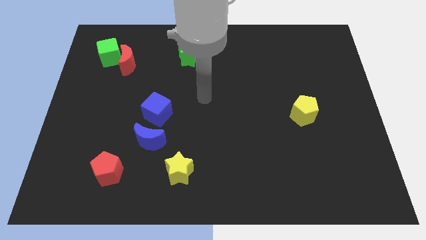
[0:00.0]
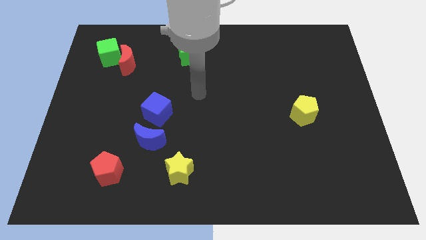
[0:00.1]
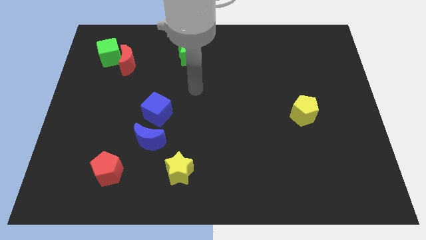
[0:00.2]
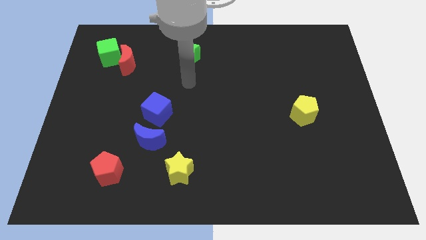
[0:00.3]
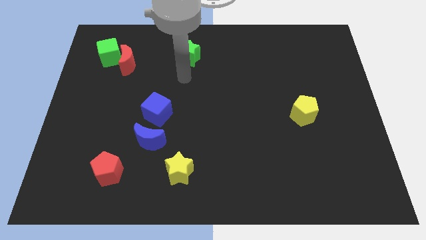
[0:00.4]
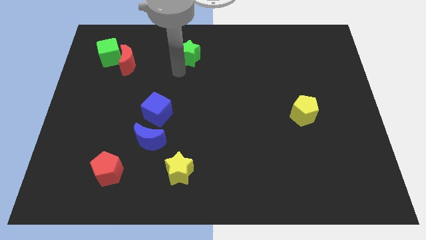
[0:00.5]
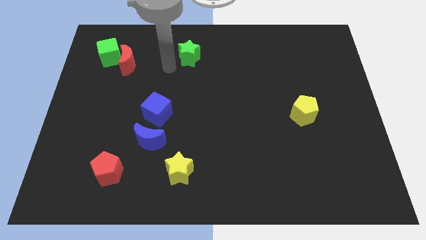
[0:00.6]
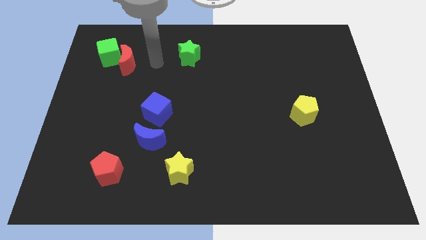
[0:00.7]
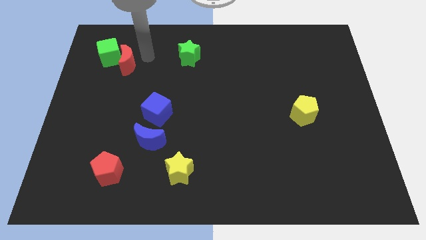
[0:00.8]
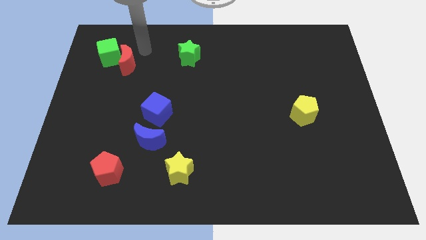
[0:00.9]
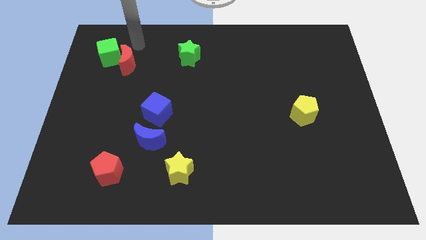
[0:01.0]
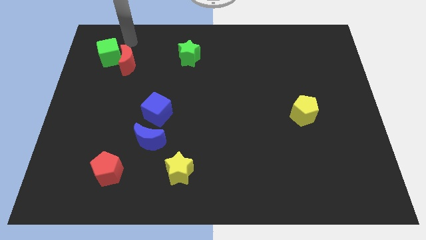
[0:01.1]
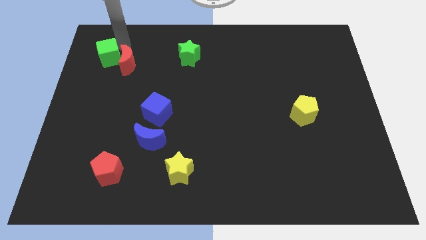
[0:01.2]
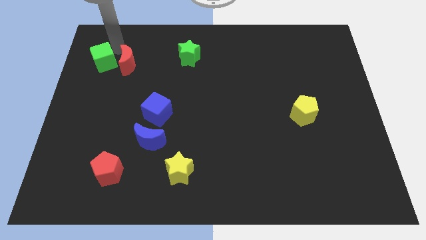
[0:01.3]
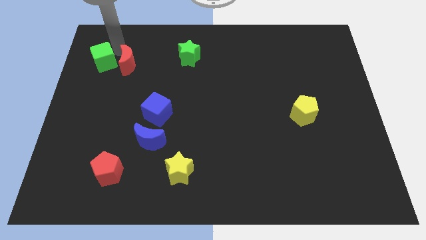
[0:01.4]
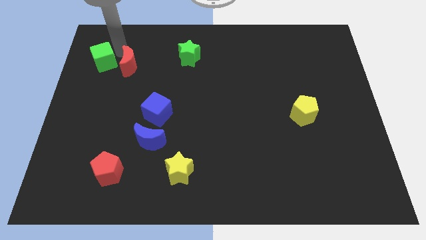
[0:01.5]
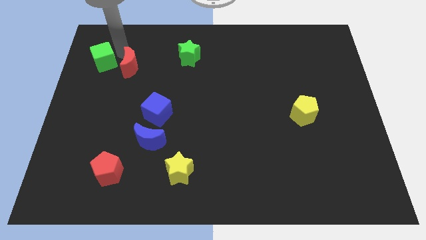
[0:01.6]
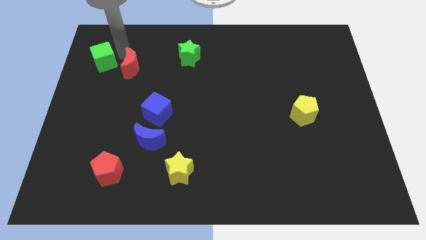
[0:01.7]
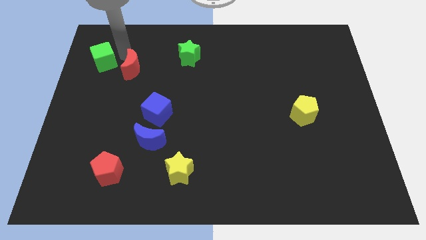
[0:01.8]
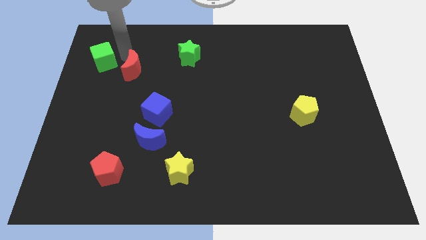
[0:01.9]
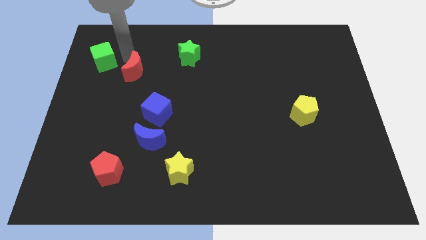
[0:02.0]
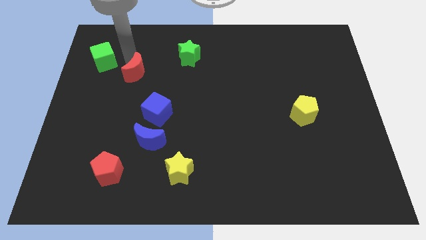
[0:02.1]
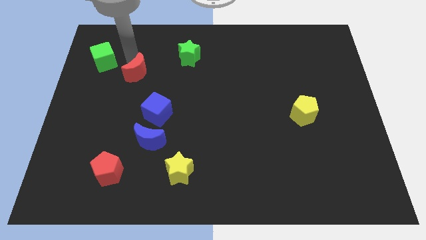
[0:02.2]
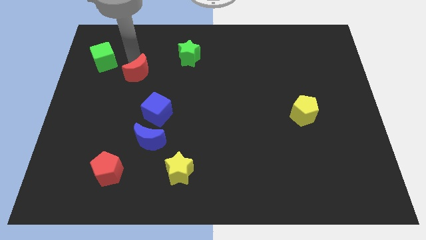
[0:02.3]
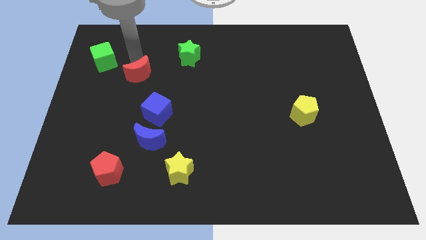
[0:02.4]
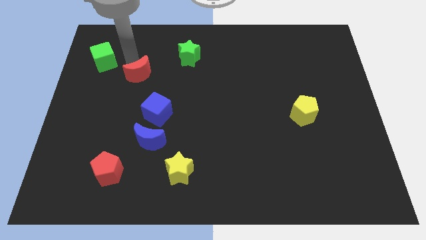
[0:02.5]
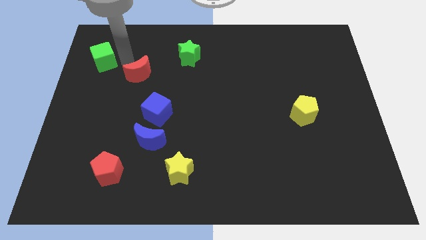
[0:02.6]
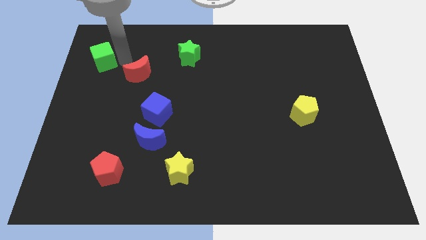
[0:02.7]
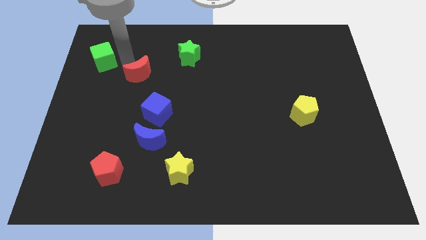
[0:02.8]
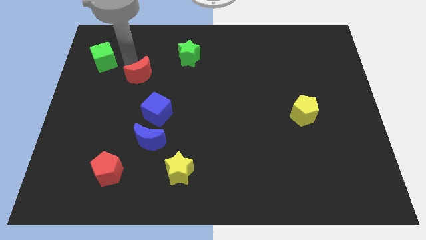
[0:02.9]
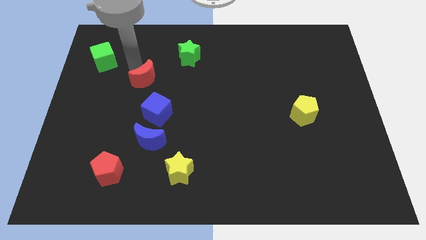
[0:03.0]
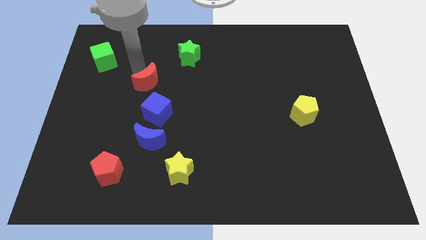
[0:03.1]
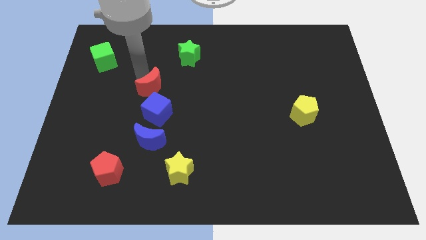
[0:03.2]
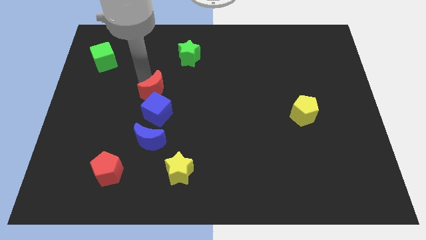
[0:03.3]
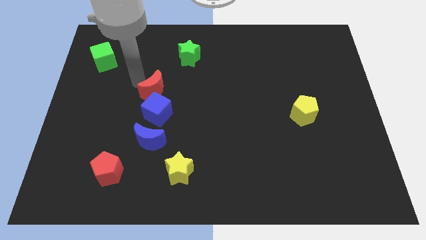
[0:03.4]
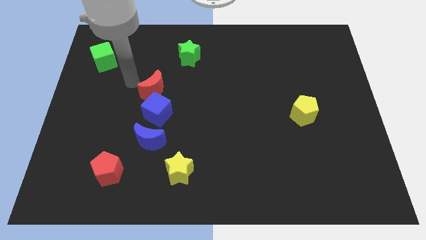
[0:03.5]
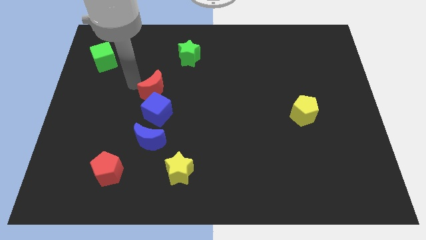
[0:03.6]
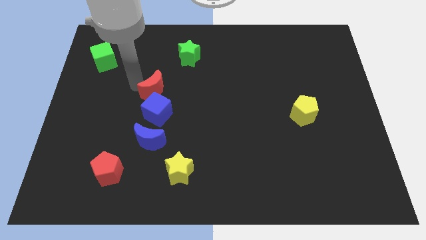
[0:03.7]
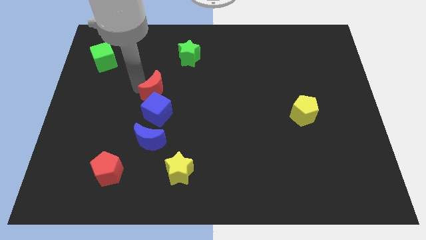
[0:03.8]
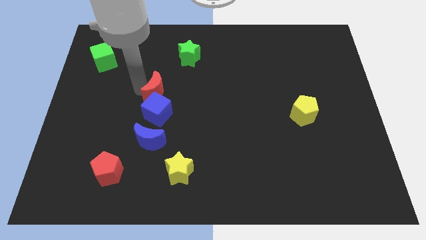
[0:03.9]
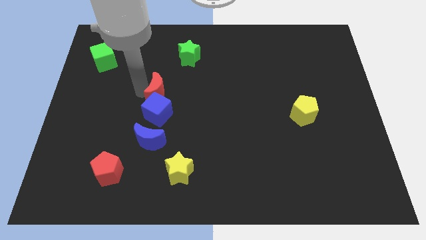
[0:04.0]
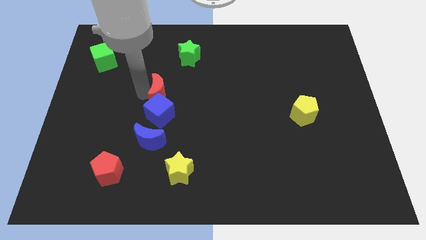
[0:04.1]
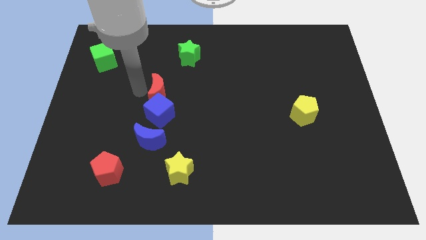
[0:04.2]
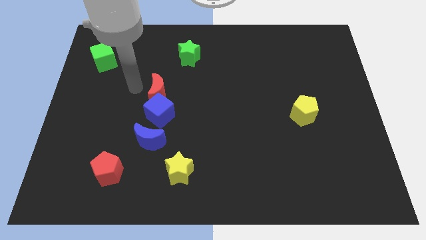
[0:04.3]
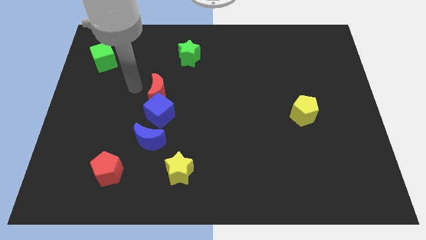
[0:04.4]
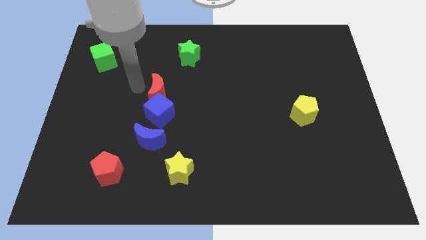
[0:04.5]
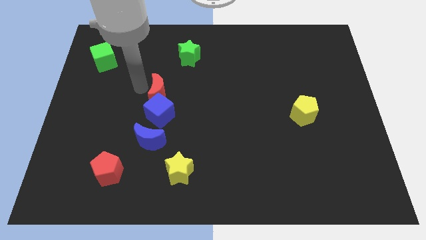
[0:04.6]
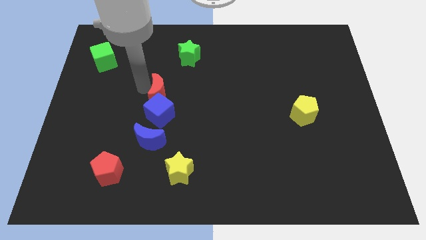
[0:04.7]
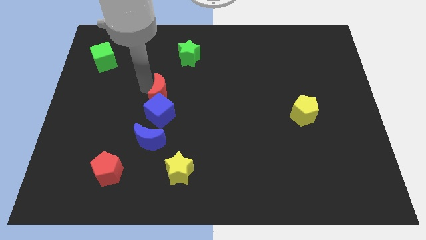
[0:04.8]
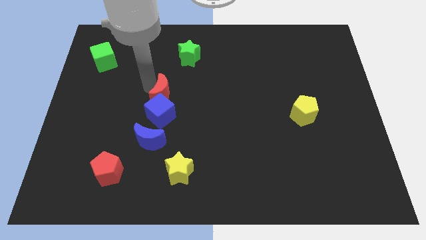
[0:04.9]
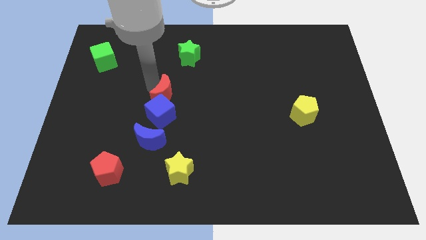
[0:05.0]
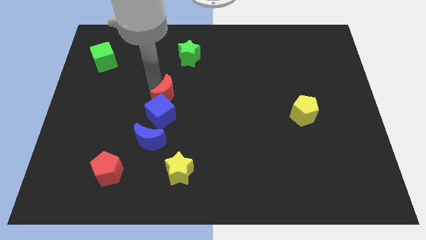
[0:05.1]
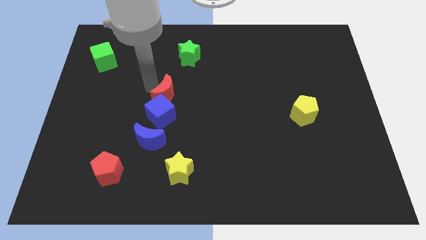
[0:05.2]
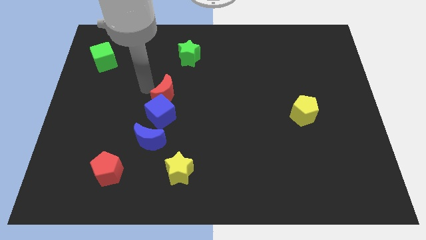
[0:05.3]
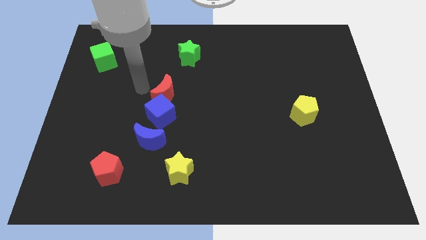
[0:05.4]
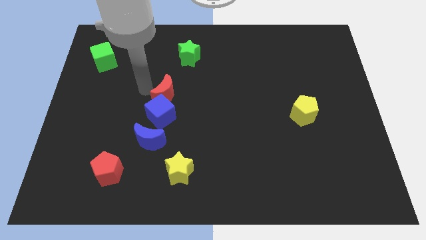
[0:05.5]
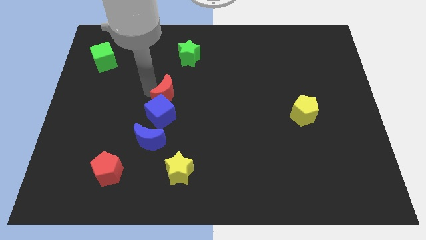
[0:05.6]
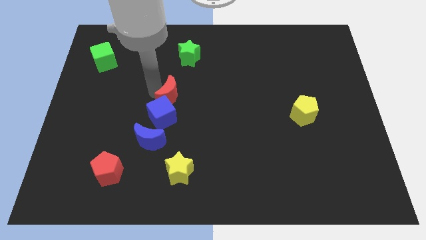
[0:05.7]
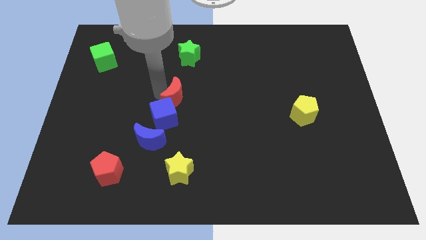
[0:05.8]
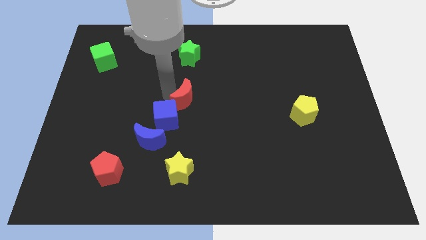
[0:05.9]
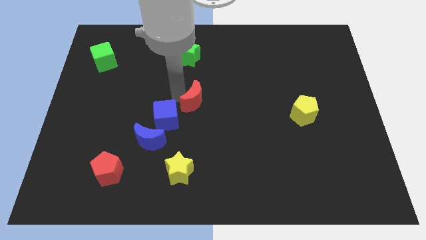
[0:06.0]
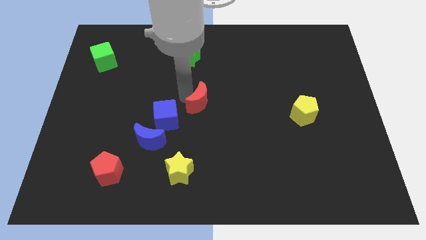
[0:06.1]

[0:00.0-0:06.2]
move the red moon just right of the blue cube

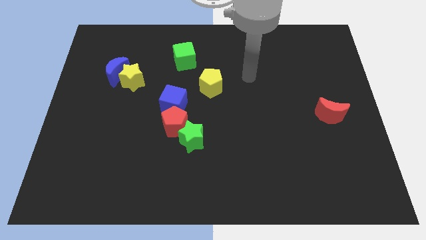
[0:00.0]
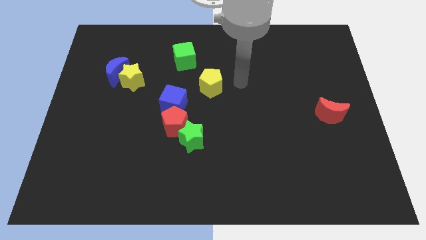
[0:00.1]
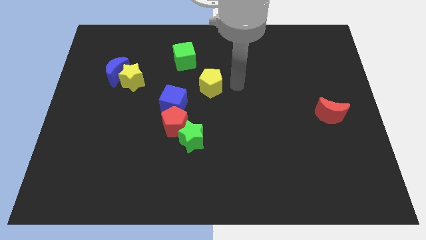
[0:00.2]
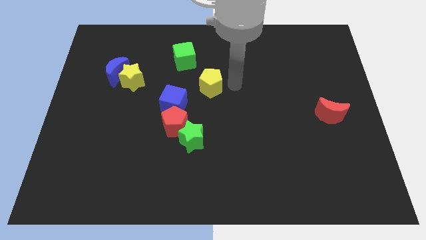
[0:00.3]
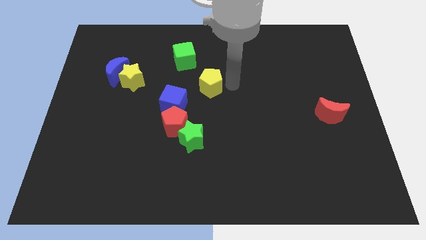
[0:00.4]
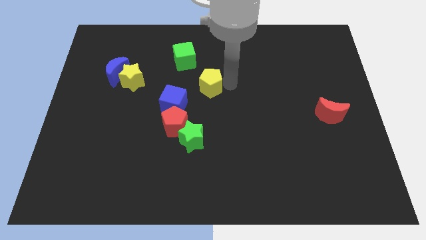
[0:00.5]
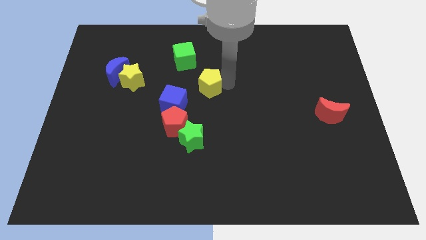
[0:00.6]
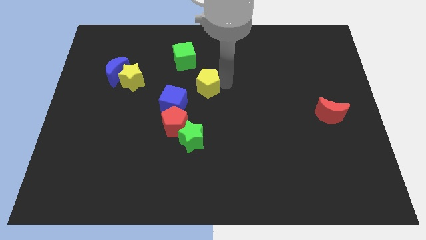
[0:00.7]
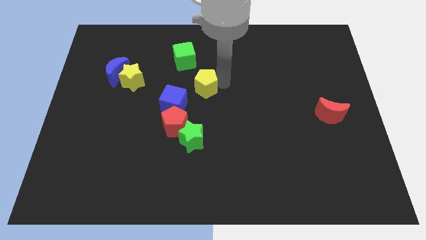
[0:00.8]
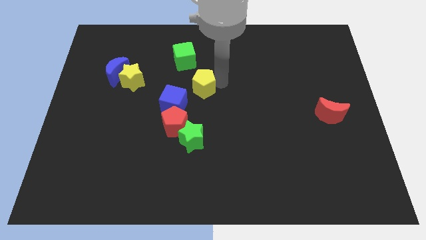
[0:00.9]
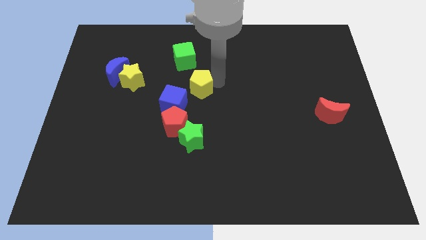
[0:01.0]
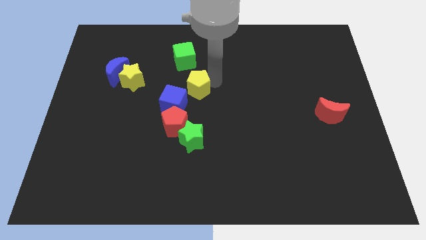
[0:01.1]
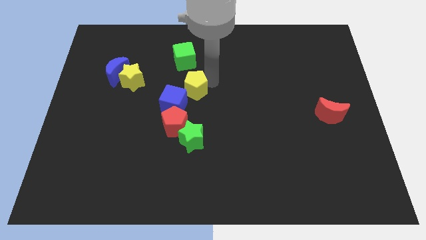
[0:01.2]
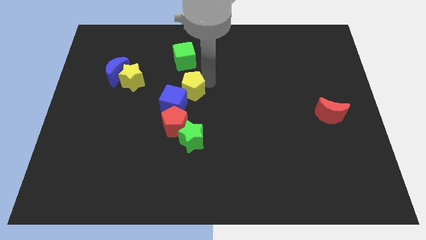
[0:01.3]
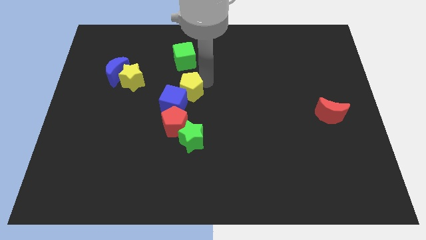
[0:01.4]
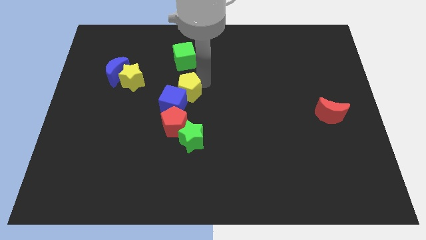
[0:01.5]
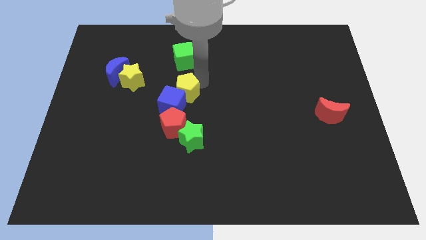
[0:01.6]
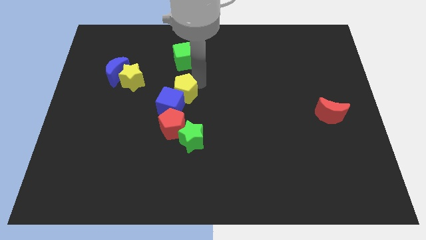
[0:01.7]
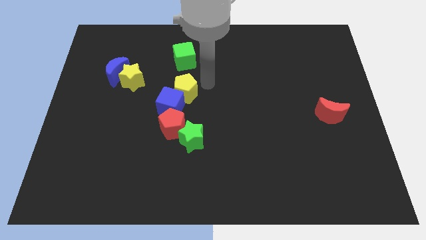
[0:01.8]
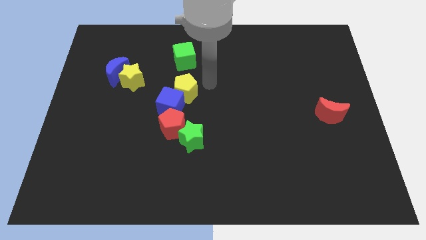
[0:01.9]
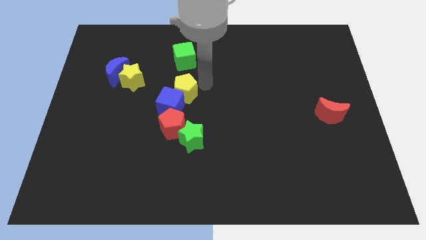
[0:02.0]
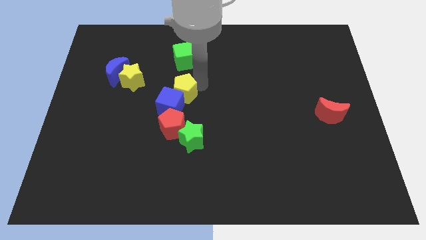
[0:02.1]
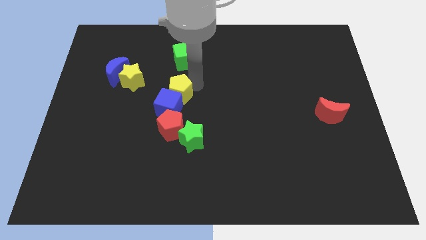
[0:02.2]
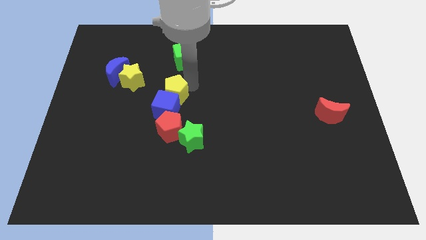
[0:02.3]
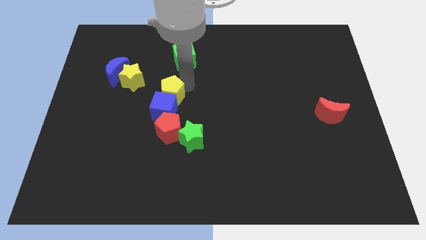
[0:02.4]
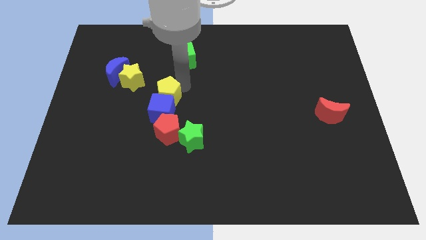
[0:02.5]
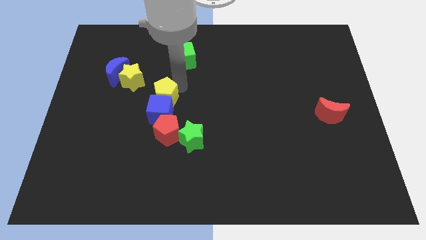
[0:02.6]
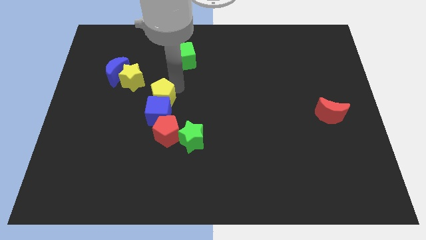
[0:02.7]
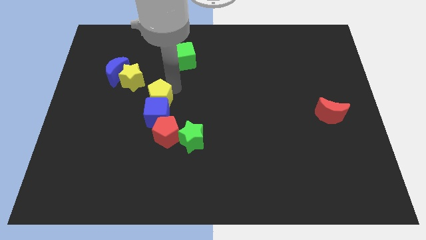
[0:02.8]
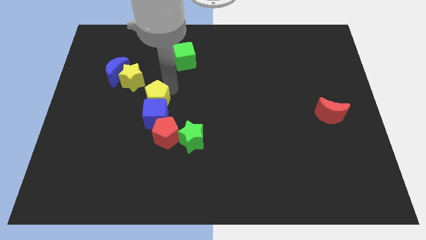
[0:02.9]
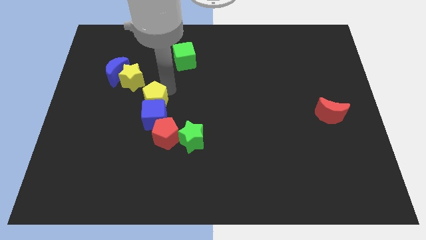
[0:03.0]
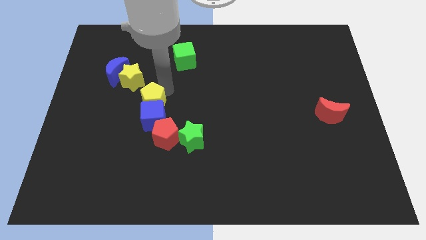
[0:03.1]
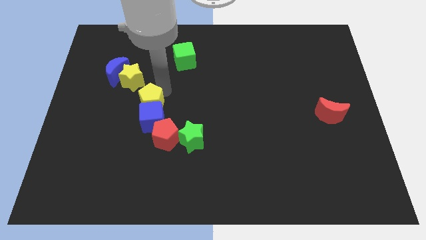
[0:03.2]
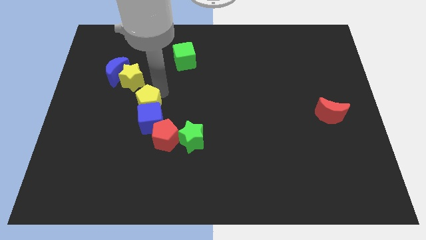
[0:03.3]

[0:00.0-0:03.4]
put the yellow pentagon to the bottom side of the yellow star
